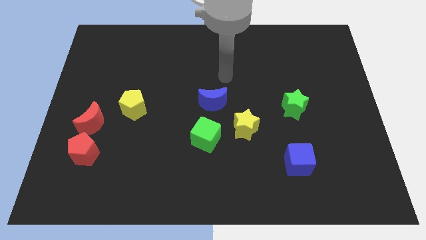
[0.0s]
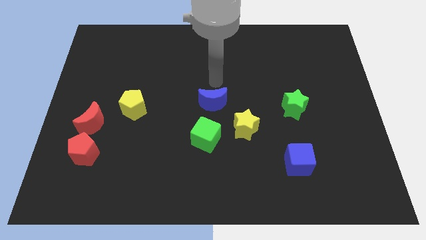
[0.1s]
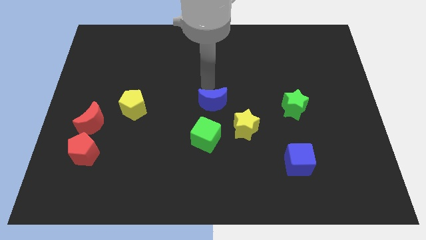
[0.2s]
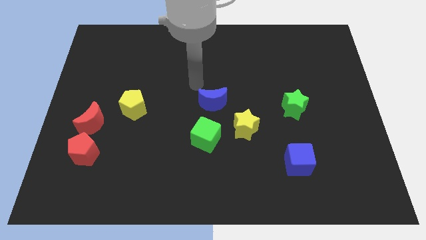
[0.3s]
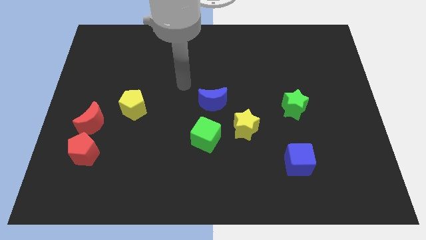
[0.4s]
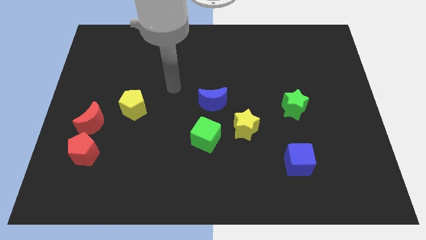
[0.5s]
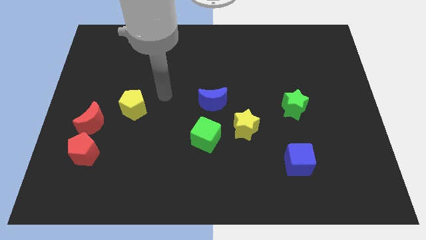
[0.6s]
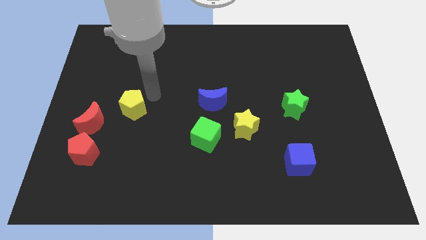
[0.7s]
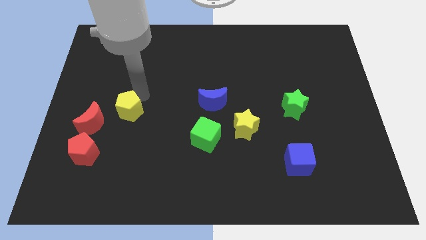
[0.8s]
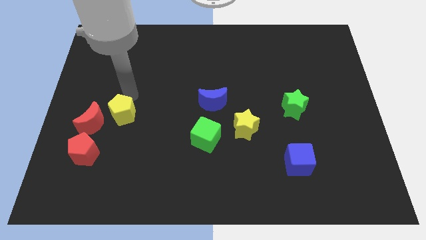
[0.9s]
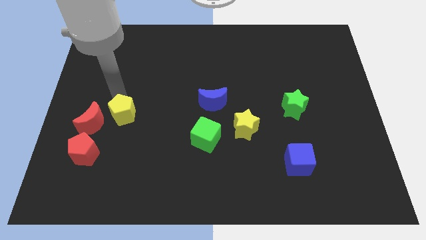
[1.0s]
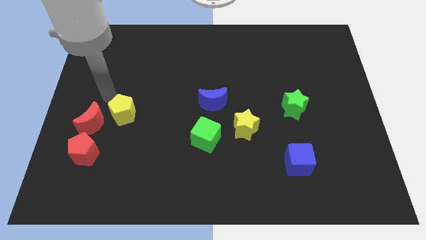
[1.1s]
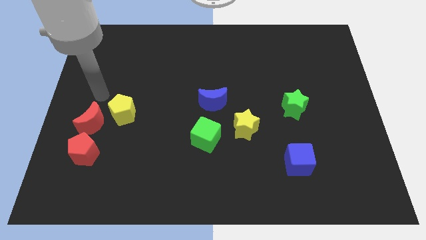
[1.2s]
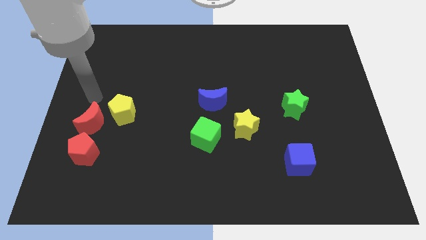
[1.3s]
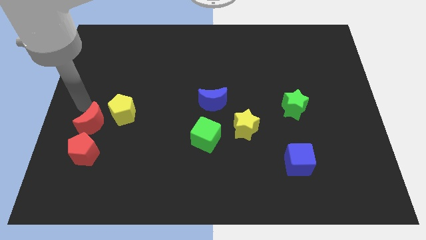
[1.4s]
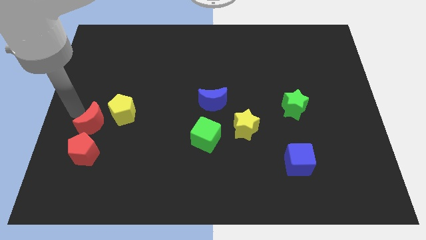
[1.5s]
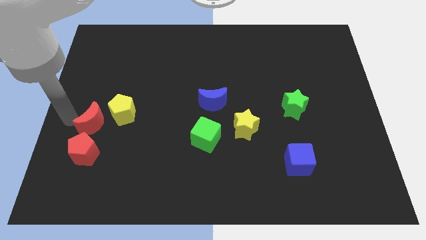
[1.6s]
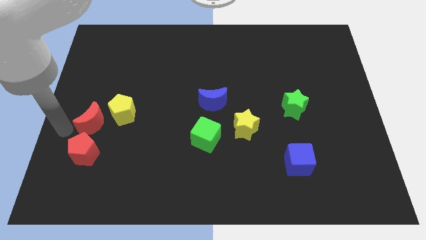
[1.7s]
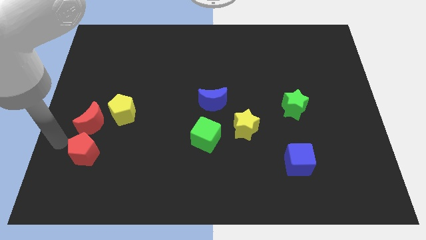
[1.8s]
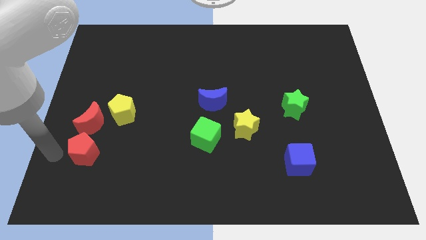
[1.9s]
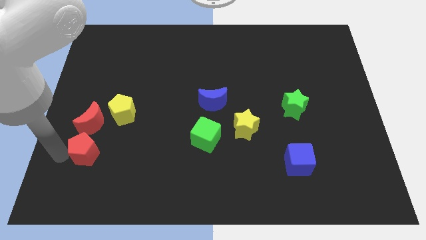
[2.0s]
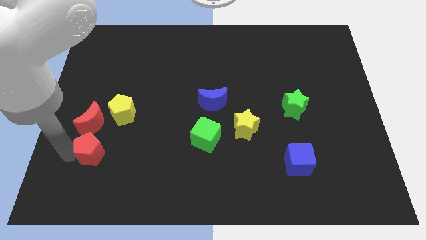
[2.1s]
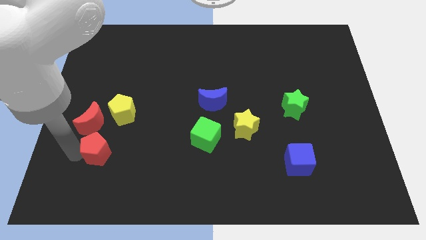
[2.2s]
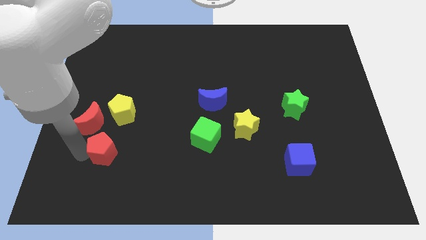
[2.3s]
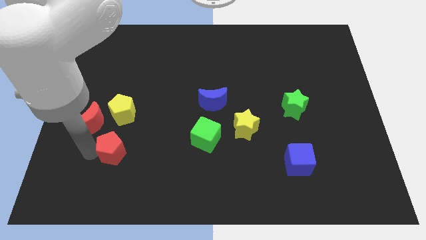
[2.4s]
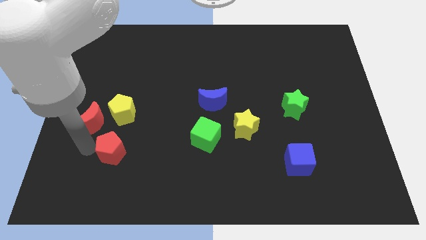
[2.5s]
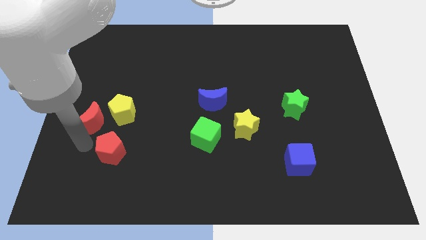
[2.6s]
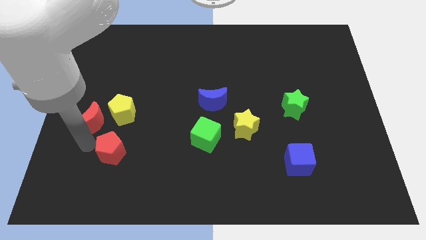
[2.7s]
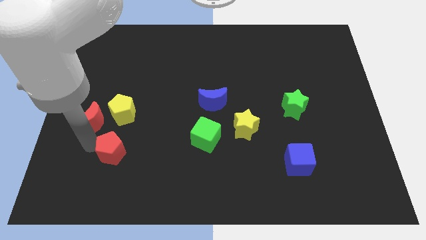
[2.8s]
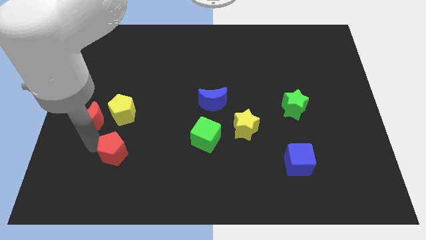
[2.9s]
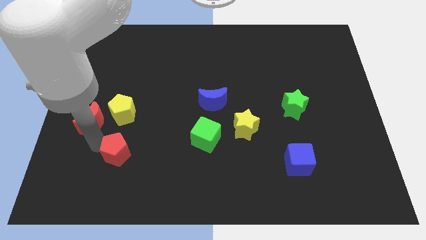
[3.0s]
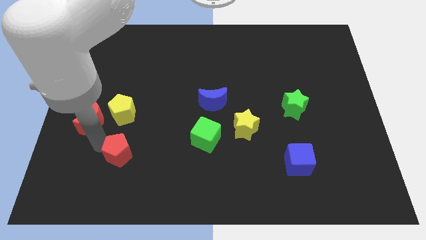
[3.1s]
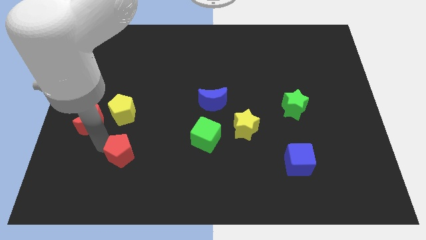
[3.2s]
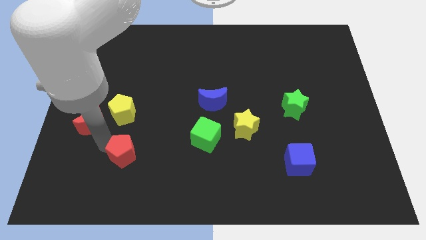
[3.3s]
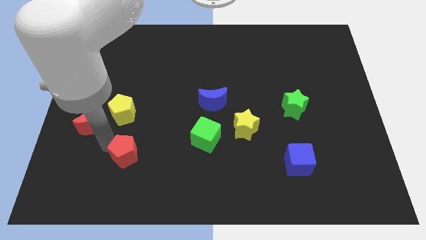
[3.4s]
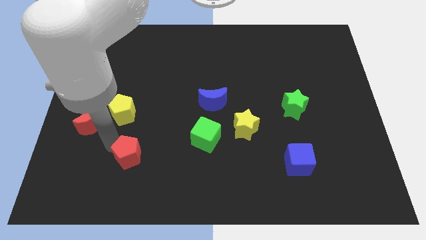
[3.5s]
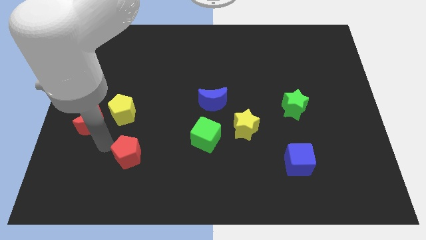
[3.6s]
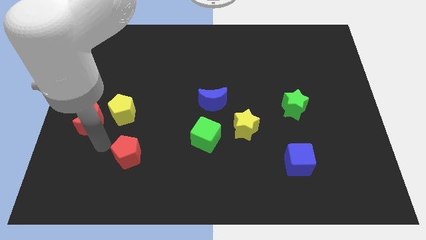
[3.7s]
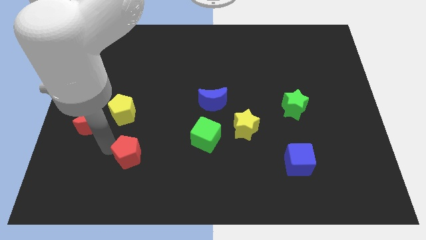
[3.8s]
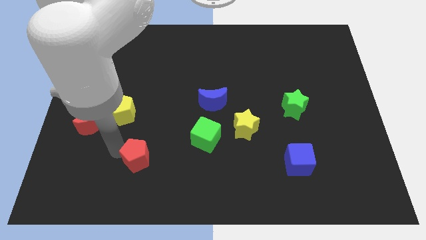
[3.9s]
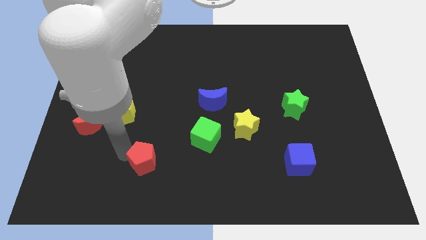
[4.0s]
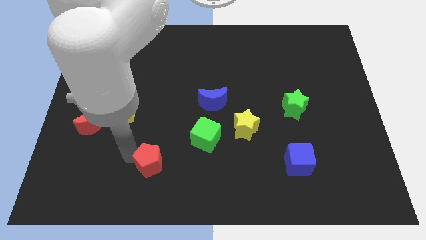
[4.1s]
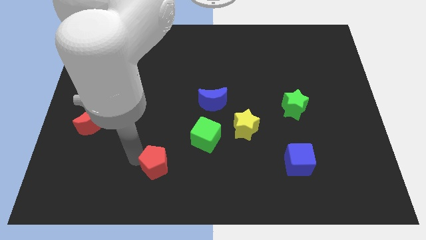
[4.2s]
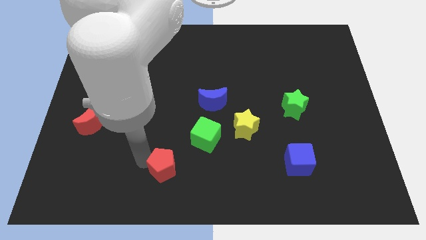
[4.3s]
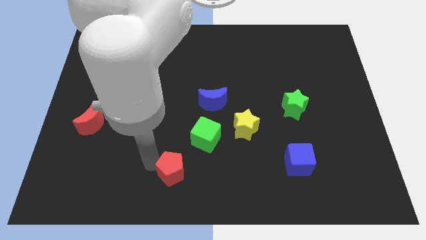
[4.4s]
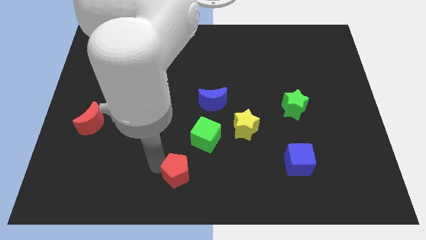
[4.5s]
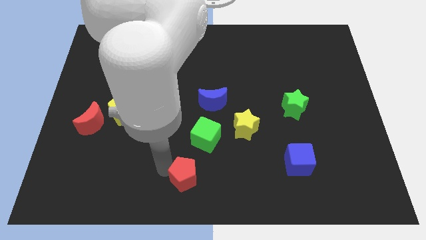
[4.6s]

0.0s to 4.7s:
push the red pentagon to the bottom of the green cube

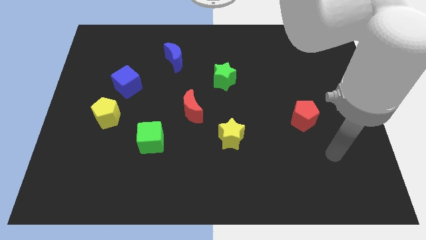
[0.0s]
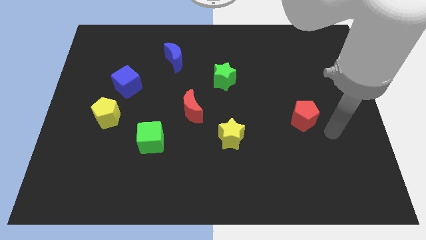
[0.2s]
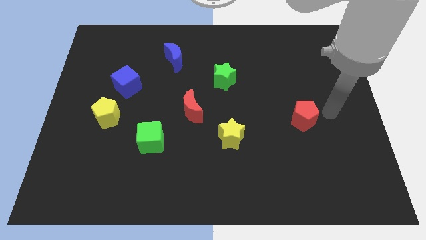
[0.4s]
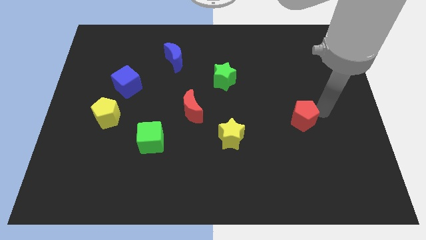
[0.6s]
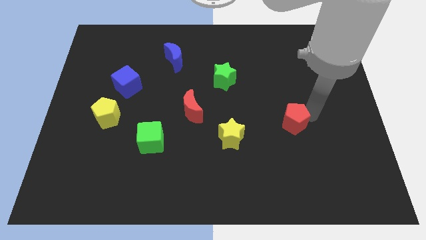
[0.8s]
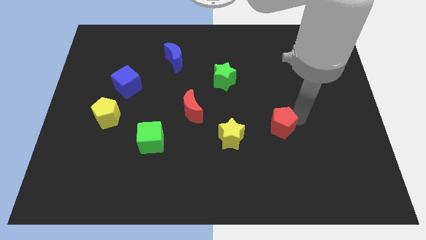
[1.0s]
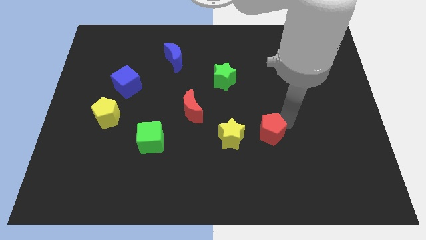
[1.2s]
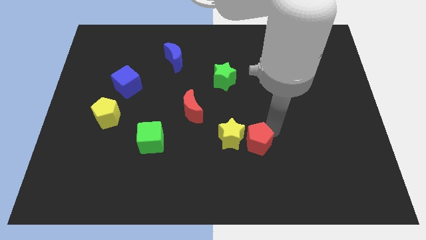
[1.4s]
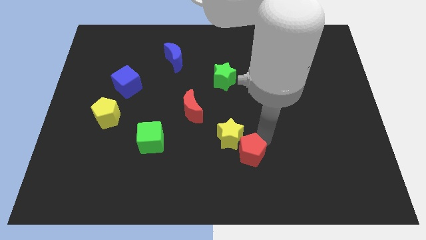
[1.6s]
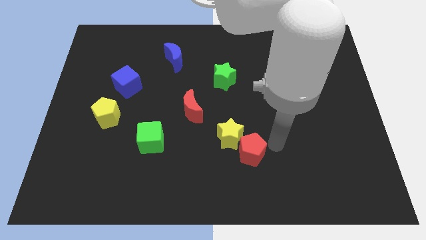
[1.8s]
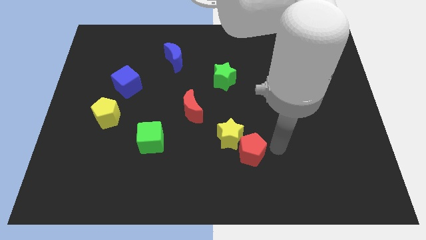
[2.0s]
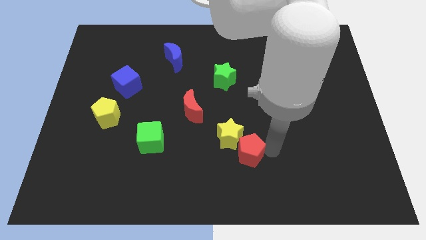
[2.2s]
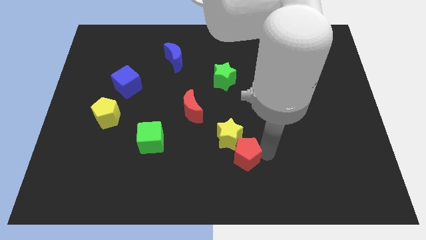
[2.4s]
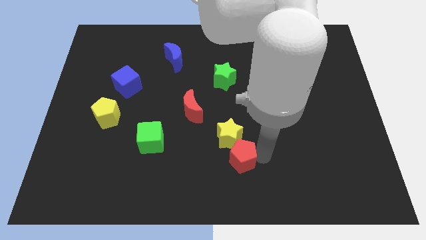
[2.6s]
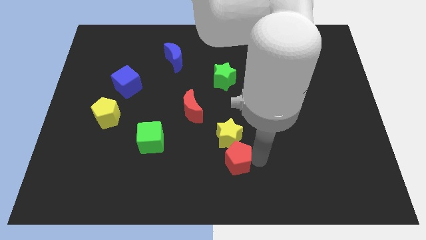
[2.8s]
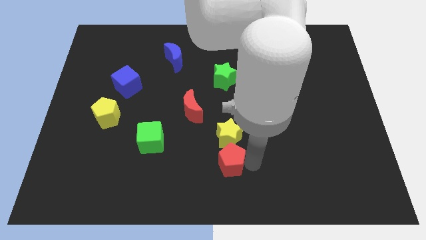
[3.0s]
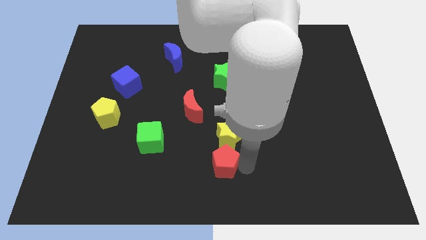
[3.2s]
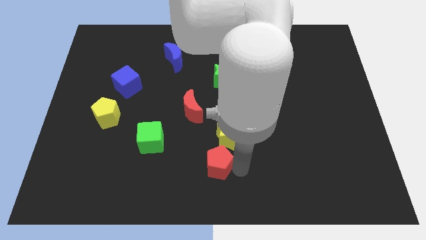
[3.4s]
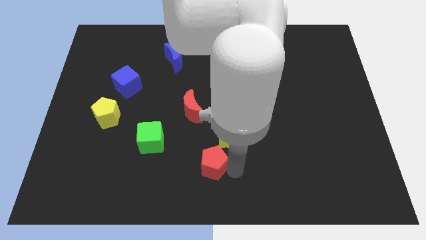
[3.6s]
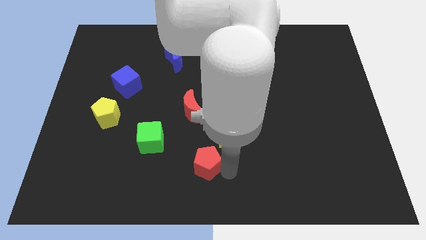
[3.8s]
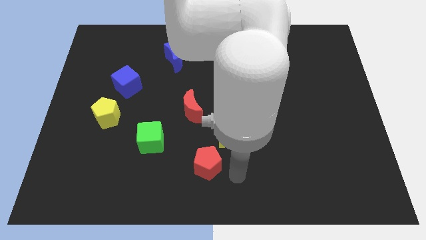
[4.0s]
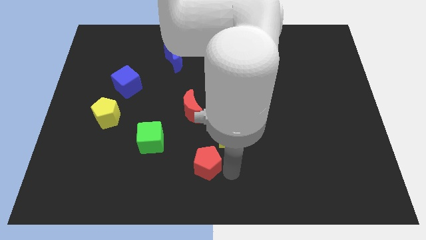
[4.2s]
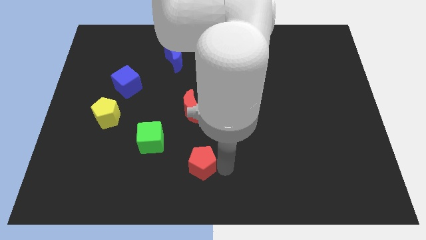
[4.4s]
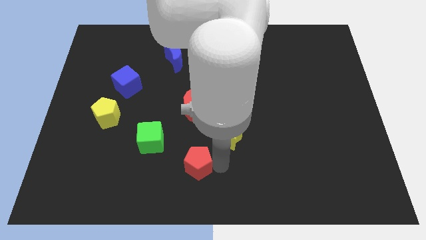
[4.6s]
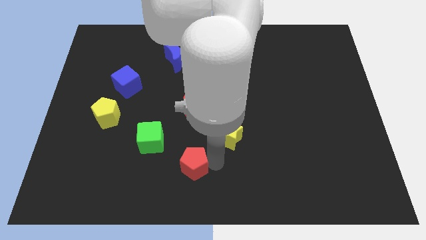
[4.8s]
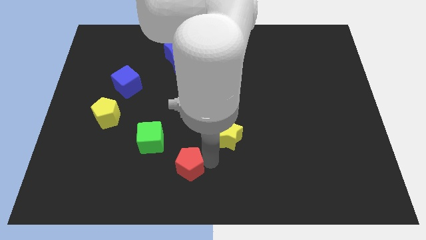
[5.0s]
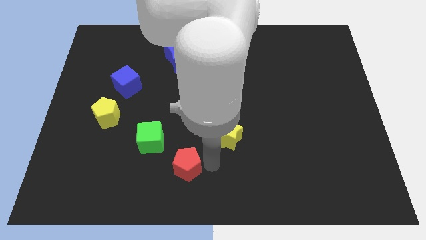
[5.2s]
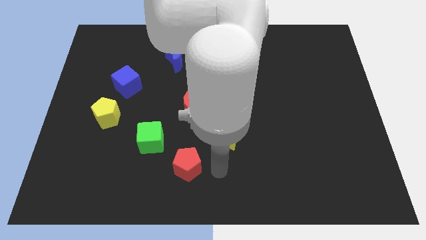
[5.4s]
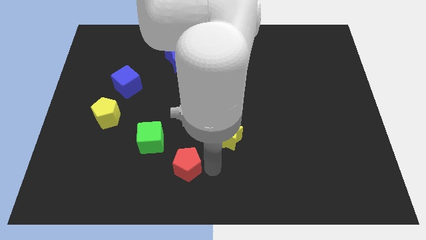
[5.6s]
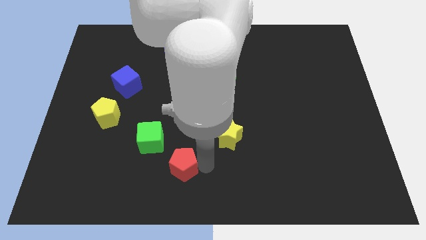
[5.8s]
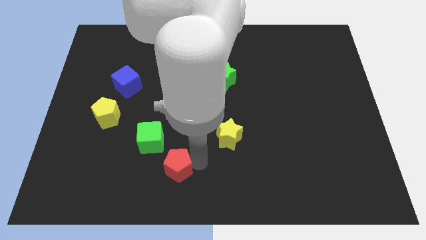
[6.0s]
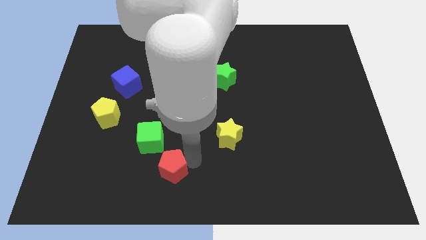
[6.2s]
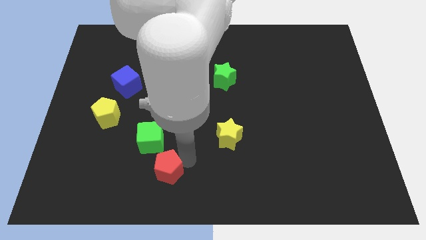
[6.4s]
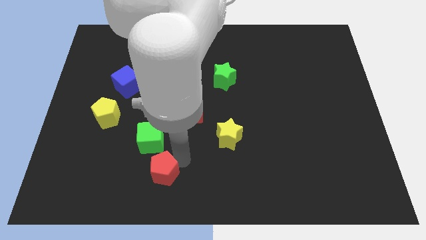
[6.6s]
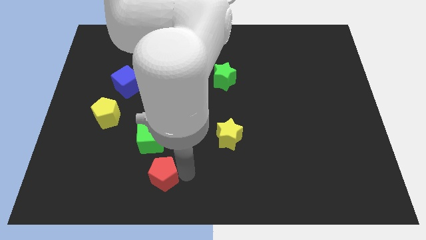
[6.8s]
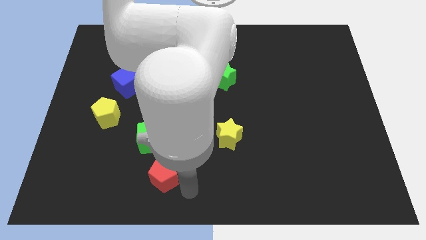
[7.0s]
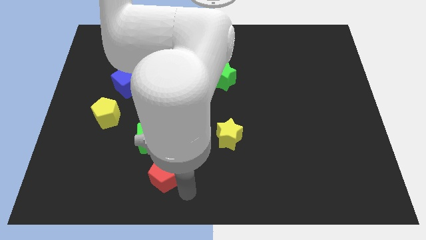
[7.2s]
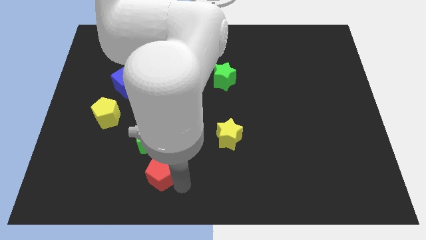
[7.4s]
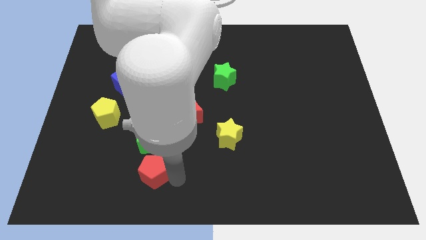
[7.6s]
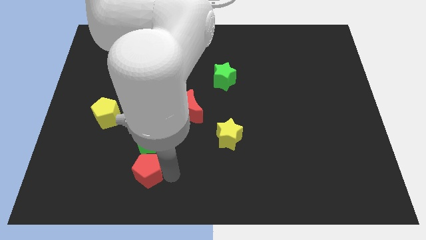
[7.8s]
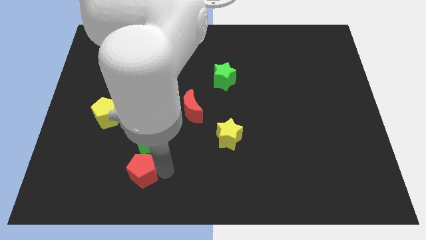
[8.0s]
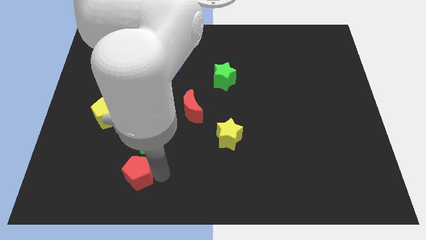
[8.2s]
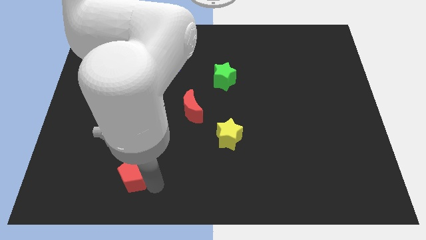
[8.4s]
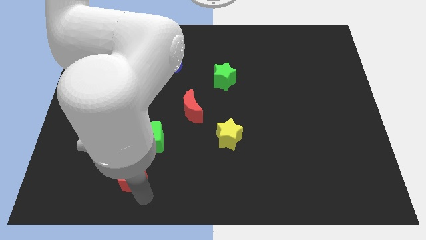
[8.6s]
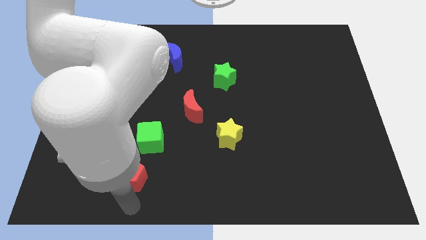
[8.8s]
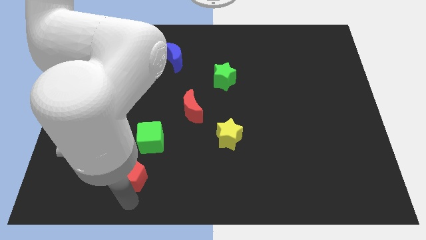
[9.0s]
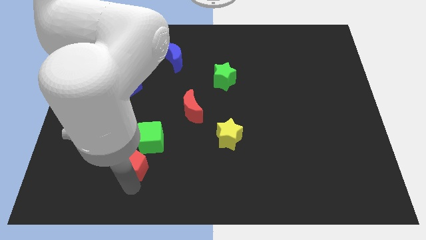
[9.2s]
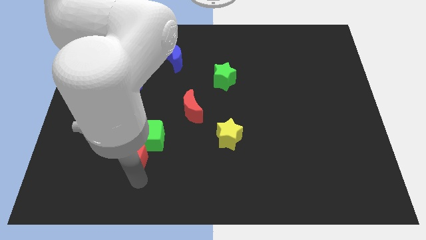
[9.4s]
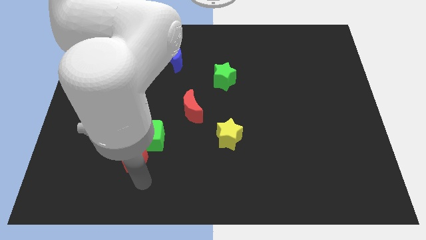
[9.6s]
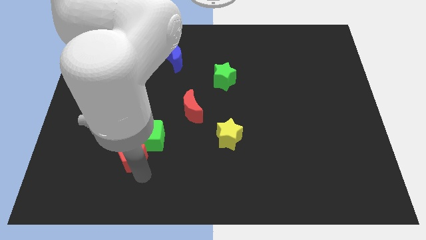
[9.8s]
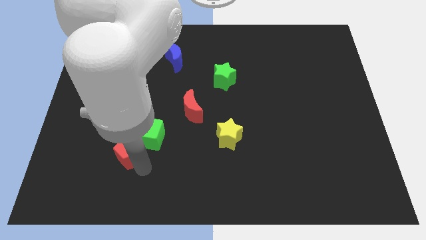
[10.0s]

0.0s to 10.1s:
move the red pentagon diagonally down and to the right of the yellow pentagon
